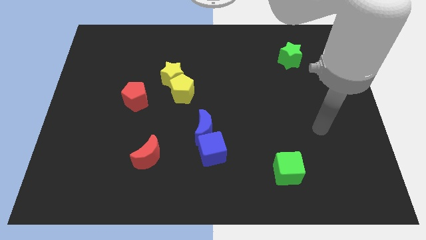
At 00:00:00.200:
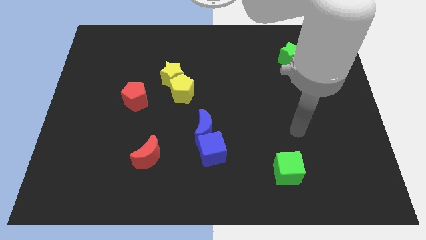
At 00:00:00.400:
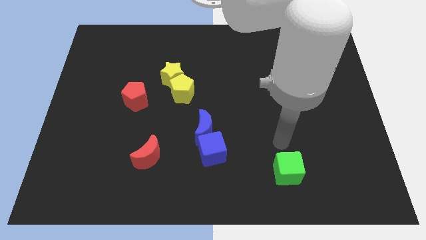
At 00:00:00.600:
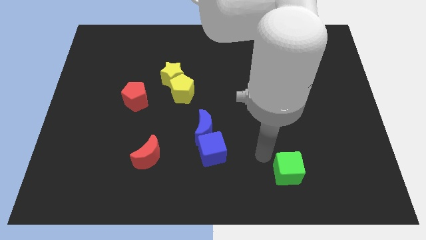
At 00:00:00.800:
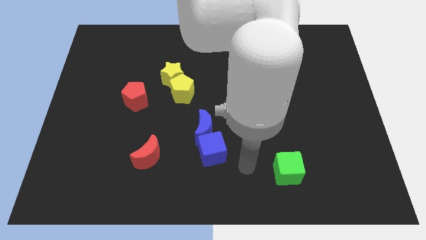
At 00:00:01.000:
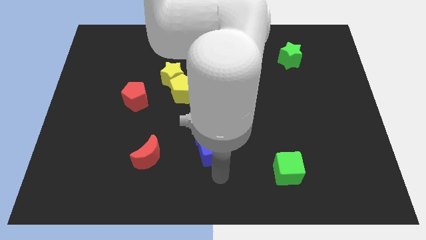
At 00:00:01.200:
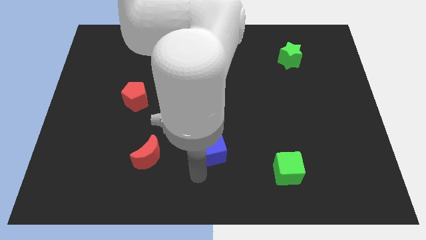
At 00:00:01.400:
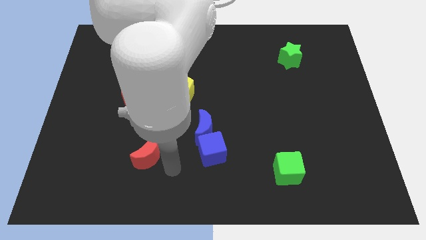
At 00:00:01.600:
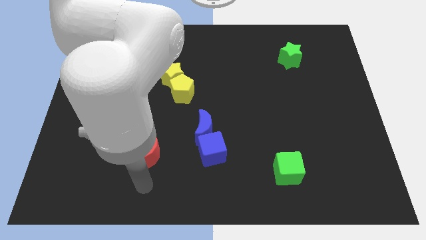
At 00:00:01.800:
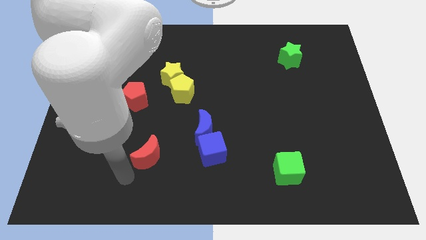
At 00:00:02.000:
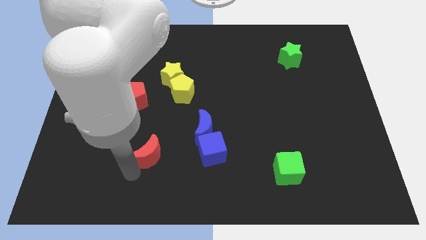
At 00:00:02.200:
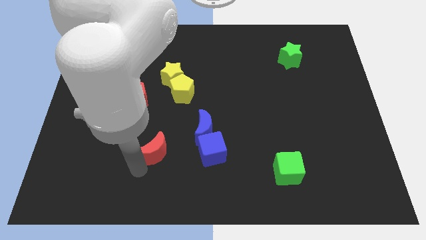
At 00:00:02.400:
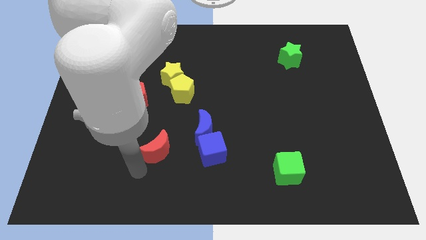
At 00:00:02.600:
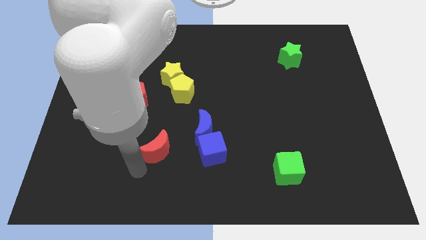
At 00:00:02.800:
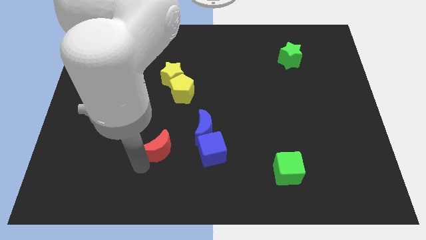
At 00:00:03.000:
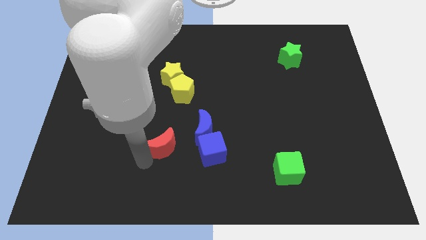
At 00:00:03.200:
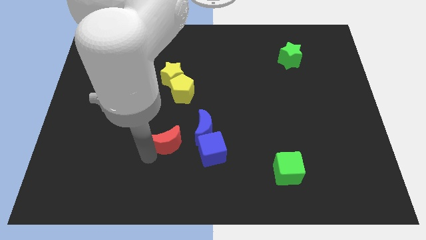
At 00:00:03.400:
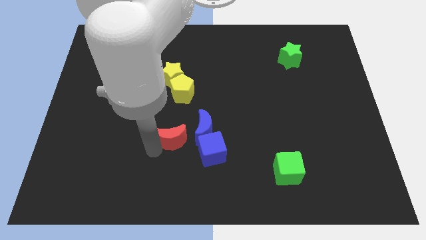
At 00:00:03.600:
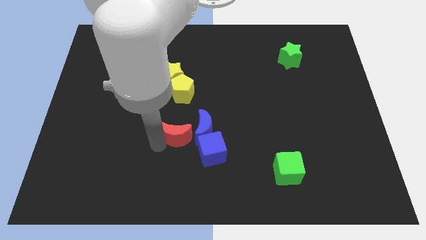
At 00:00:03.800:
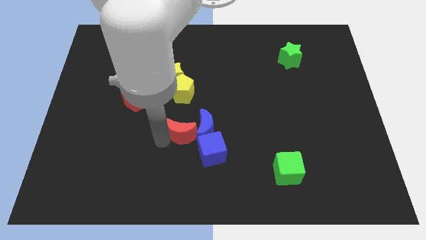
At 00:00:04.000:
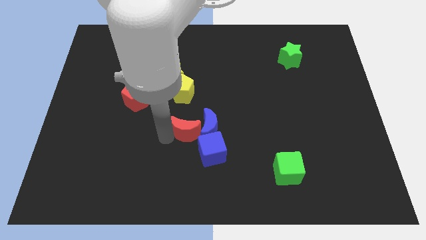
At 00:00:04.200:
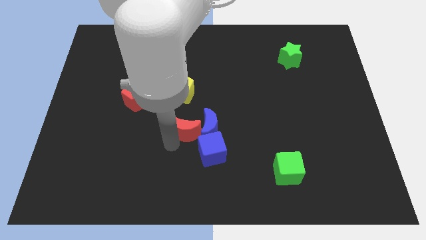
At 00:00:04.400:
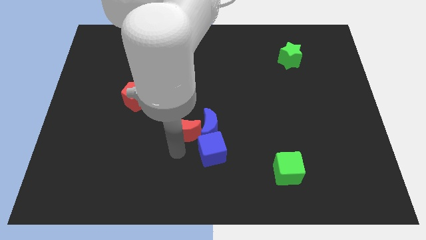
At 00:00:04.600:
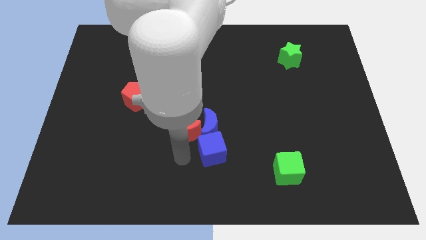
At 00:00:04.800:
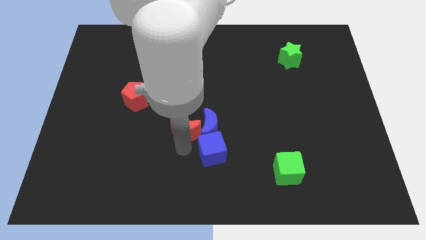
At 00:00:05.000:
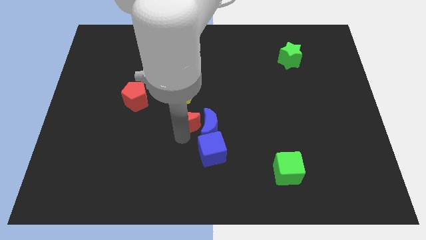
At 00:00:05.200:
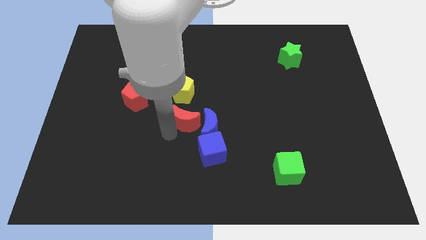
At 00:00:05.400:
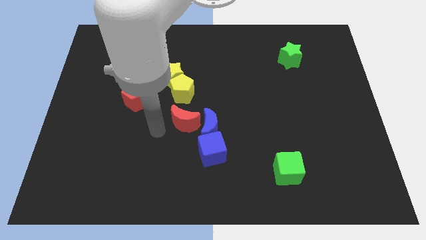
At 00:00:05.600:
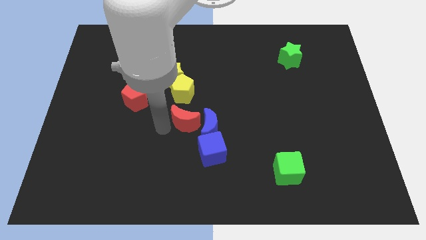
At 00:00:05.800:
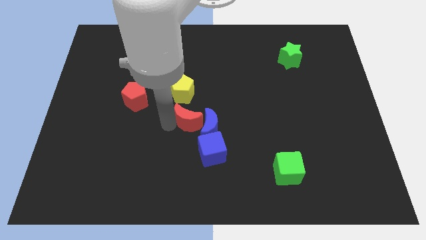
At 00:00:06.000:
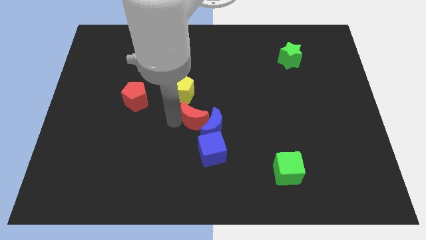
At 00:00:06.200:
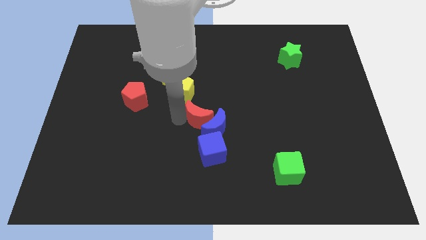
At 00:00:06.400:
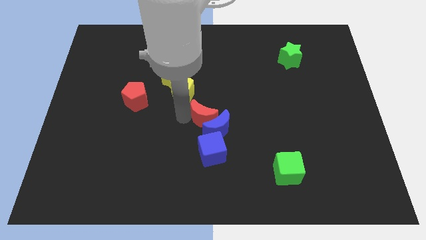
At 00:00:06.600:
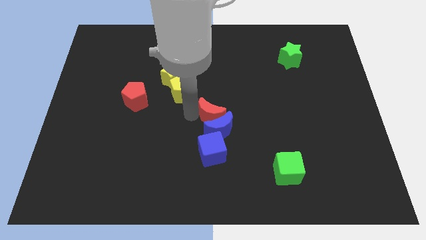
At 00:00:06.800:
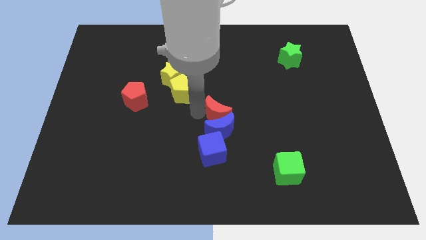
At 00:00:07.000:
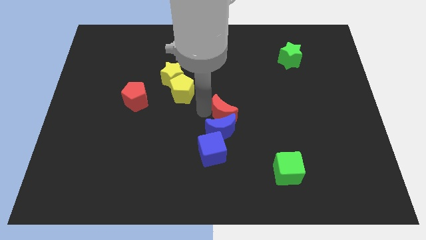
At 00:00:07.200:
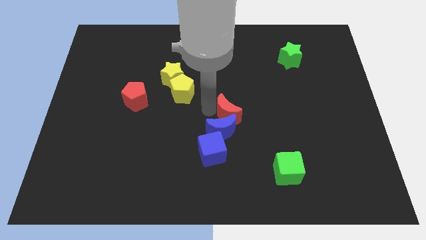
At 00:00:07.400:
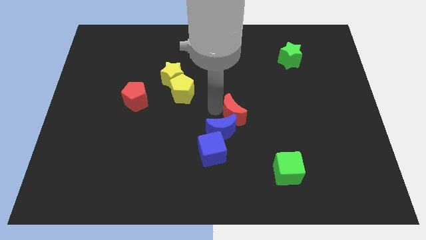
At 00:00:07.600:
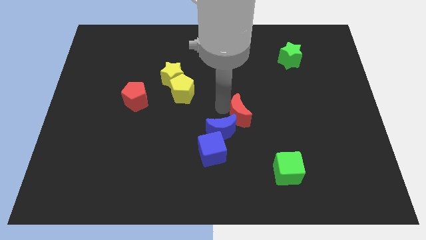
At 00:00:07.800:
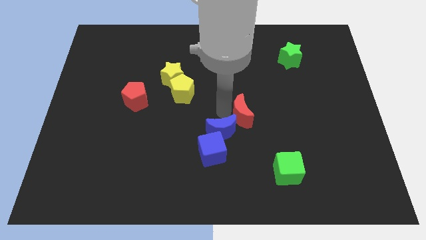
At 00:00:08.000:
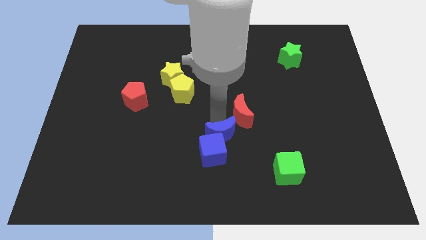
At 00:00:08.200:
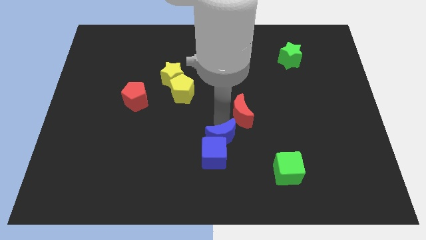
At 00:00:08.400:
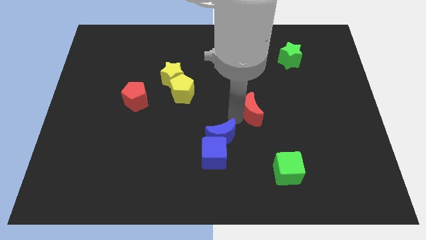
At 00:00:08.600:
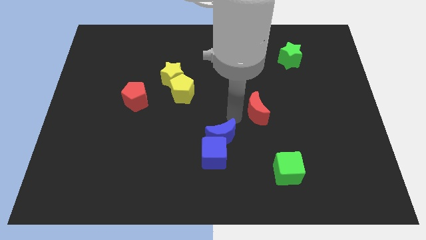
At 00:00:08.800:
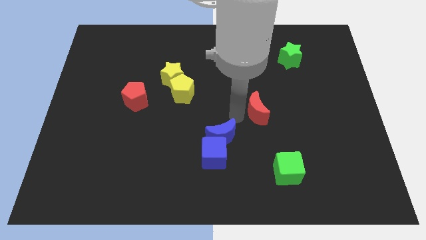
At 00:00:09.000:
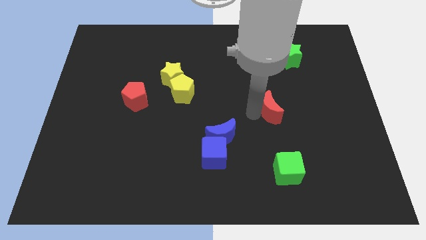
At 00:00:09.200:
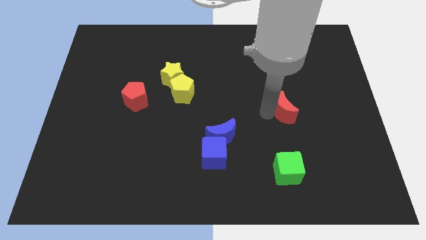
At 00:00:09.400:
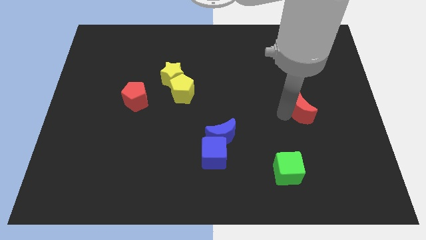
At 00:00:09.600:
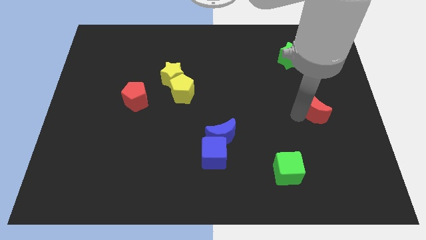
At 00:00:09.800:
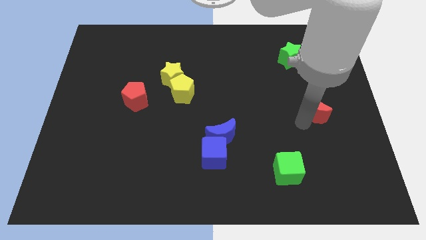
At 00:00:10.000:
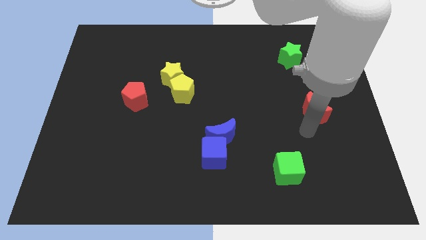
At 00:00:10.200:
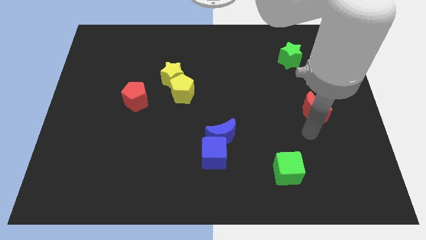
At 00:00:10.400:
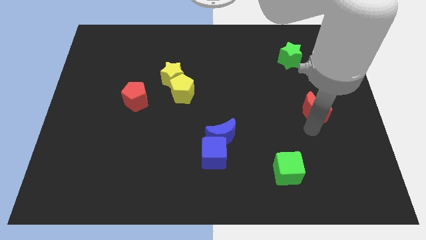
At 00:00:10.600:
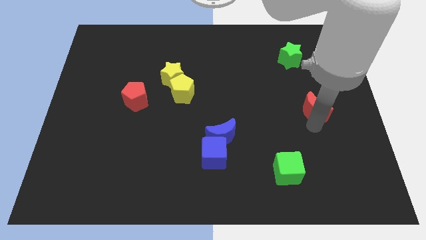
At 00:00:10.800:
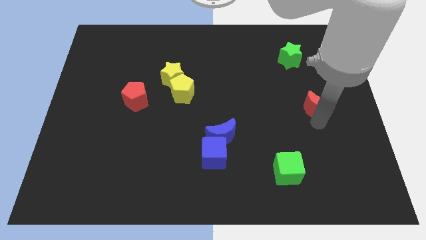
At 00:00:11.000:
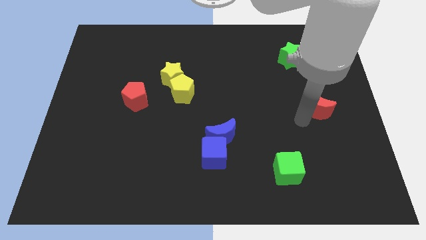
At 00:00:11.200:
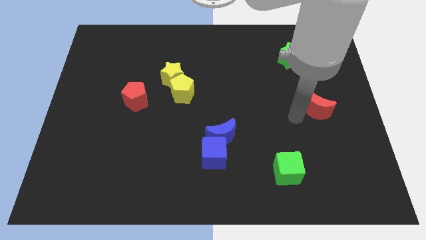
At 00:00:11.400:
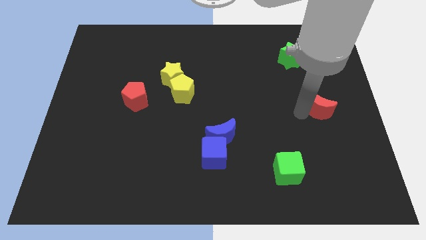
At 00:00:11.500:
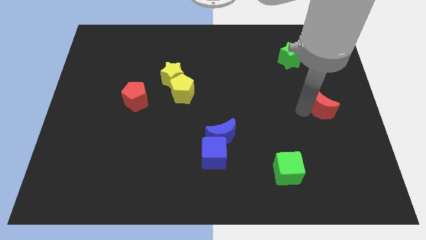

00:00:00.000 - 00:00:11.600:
push the red moon to the right side

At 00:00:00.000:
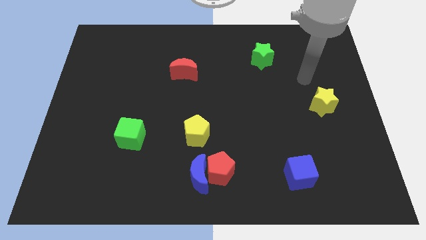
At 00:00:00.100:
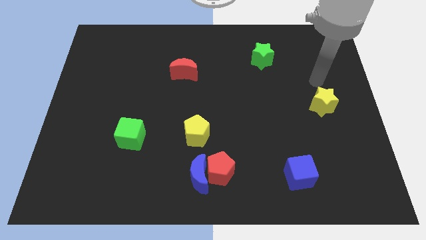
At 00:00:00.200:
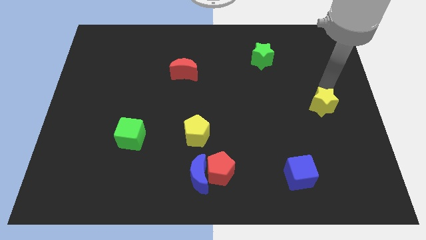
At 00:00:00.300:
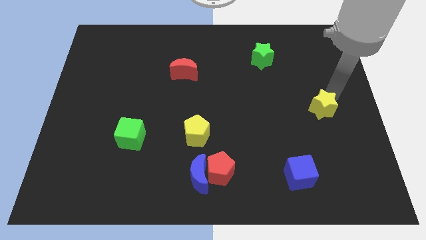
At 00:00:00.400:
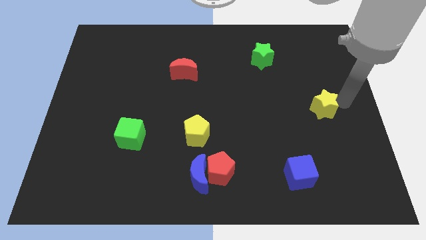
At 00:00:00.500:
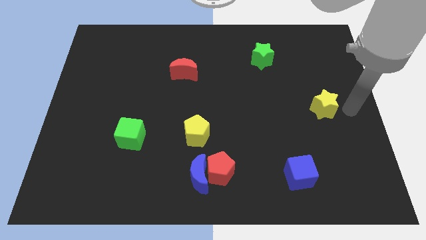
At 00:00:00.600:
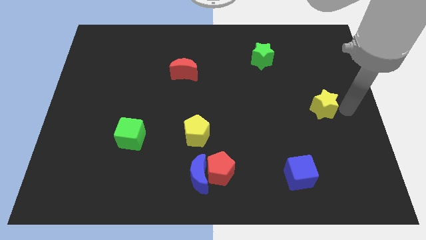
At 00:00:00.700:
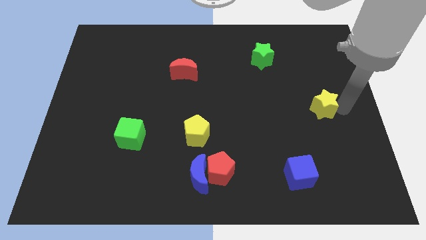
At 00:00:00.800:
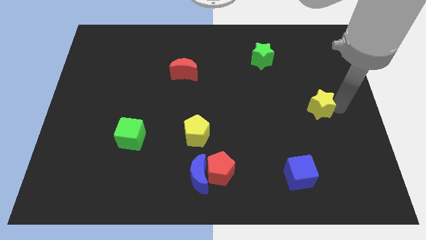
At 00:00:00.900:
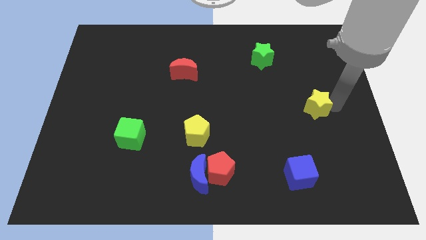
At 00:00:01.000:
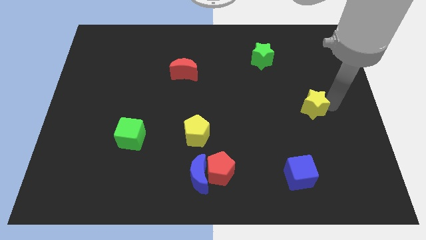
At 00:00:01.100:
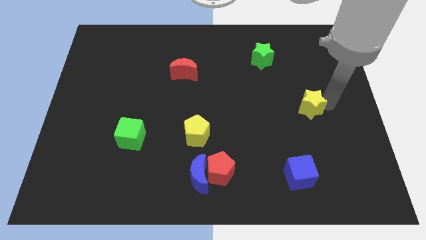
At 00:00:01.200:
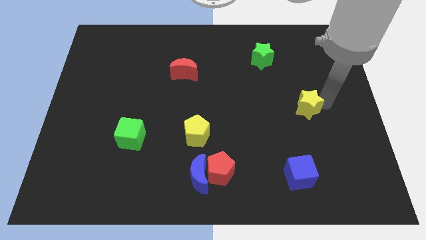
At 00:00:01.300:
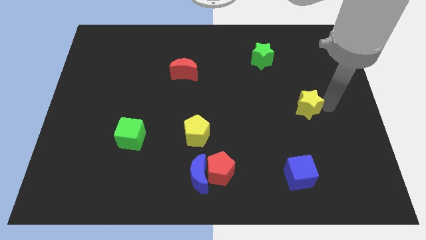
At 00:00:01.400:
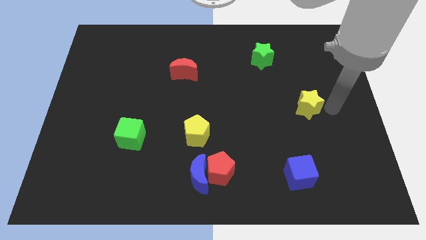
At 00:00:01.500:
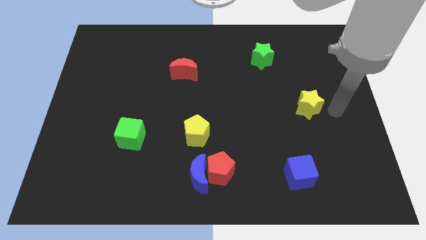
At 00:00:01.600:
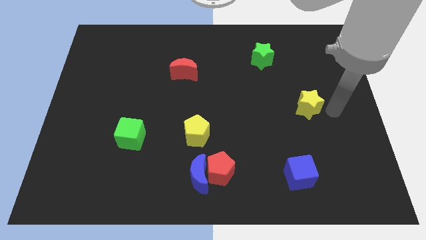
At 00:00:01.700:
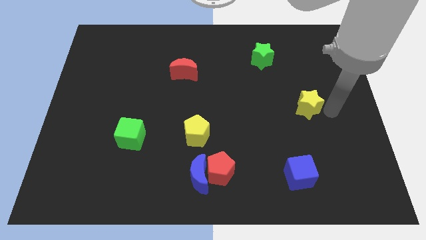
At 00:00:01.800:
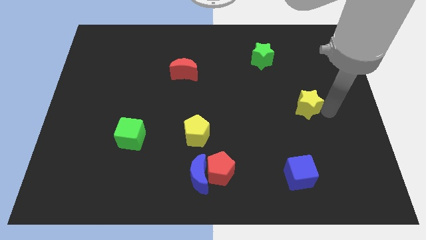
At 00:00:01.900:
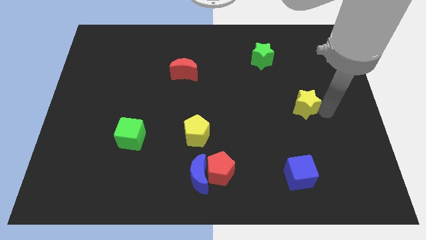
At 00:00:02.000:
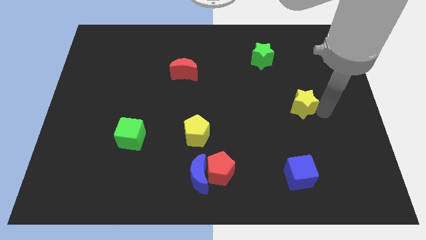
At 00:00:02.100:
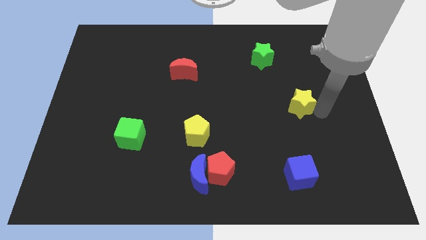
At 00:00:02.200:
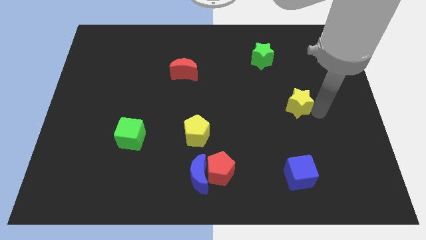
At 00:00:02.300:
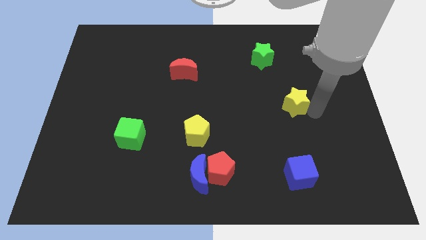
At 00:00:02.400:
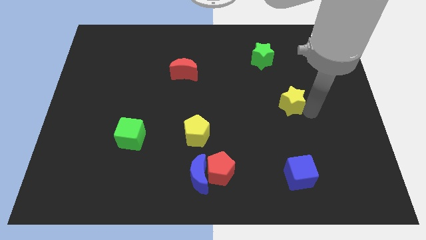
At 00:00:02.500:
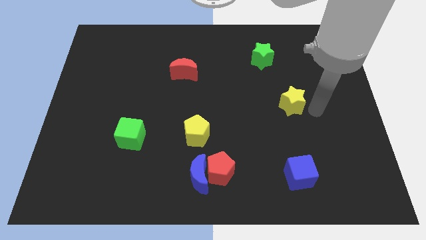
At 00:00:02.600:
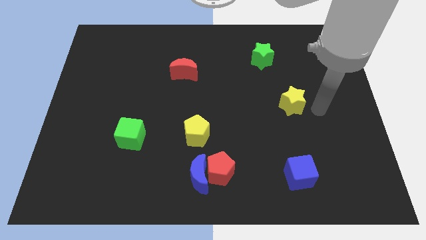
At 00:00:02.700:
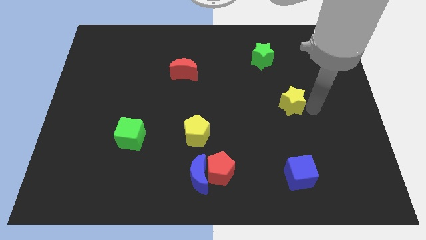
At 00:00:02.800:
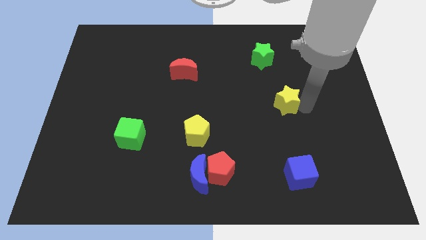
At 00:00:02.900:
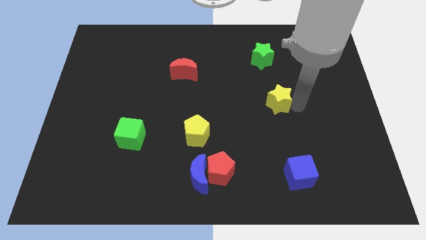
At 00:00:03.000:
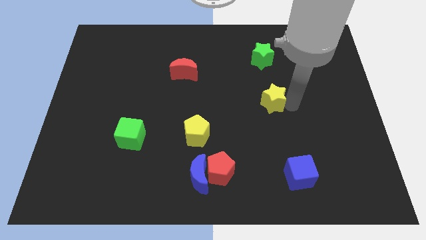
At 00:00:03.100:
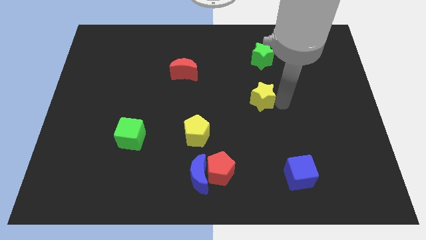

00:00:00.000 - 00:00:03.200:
move the yellow star to the center
